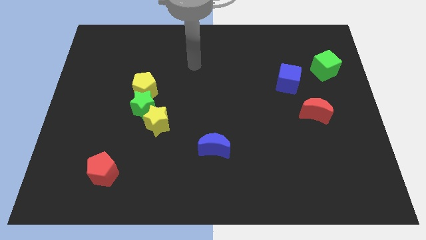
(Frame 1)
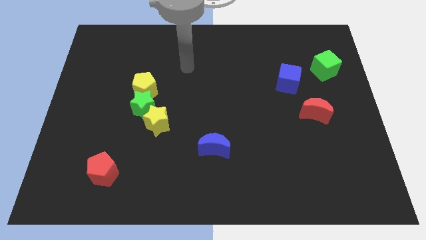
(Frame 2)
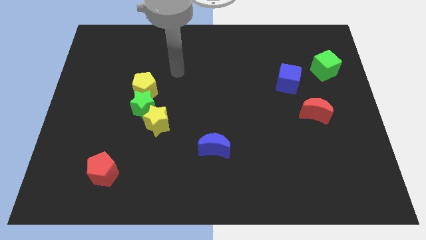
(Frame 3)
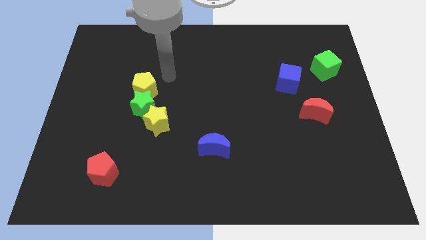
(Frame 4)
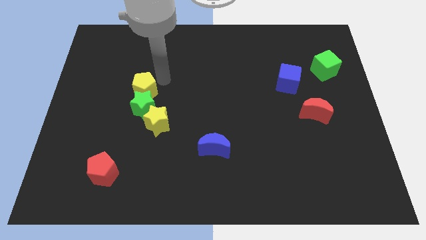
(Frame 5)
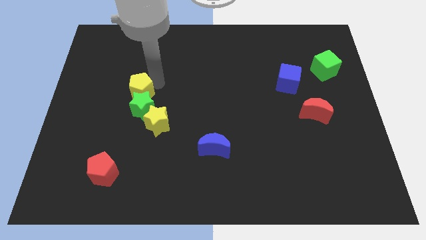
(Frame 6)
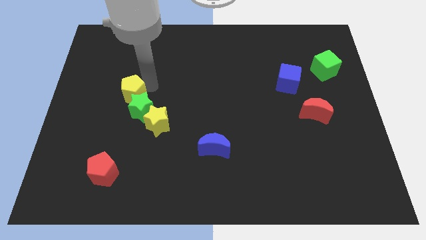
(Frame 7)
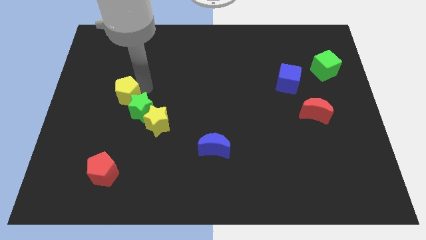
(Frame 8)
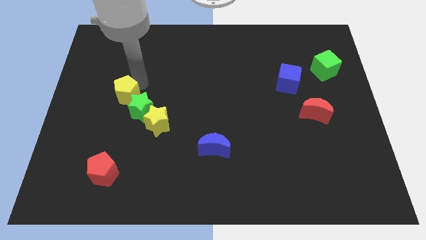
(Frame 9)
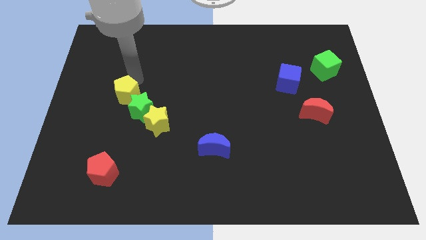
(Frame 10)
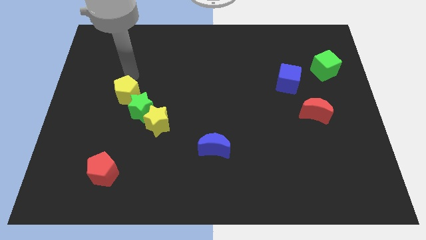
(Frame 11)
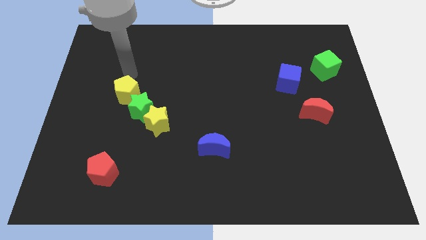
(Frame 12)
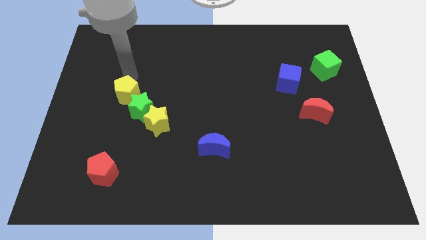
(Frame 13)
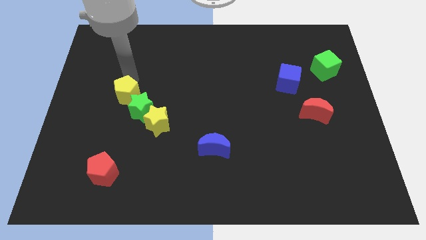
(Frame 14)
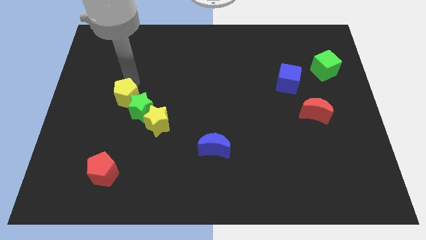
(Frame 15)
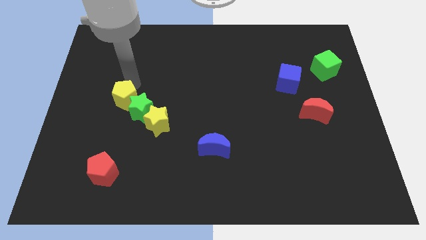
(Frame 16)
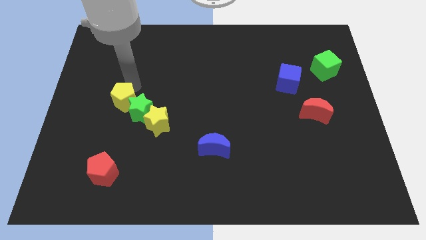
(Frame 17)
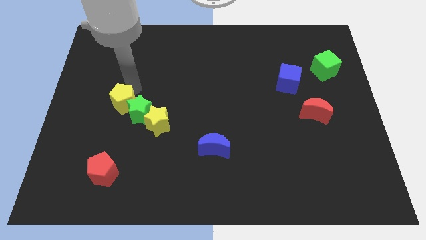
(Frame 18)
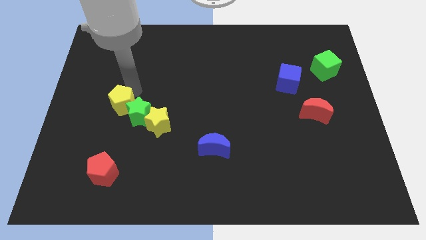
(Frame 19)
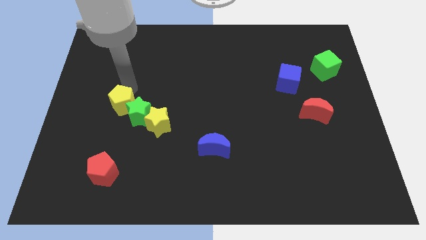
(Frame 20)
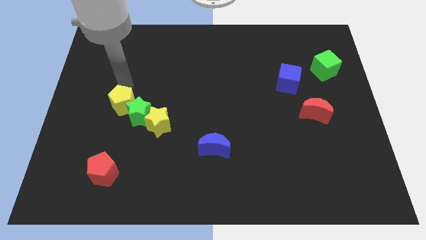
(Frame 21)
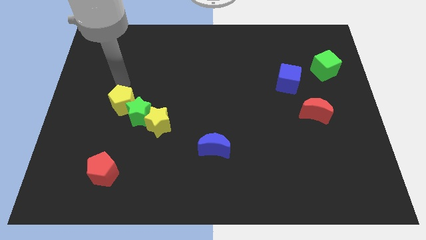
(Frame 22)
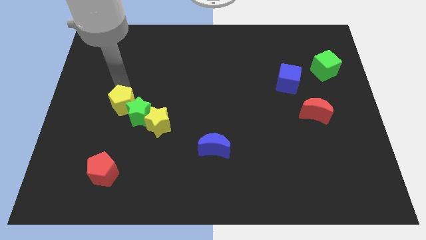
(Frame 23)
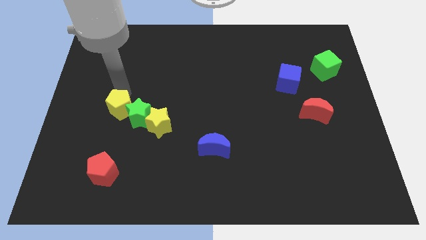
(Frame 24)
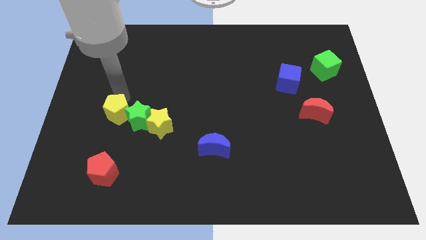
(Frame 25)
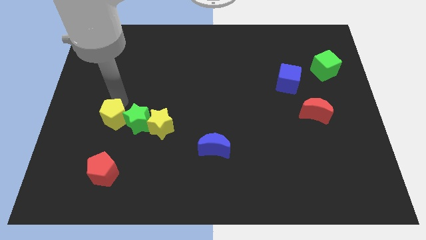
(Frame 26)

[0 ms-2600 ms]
slightly move the yellow pentagon downwards

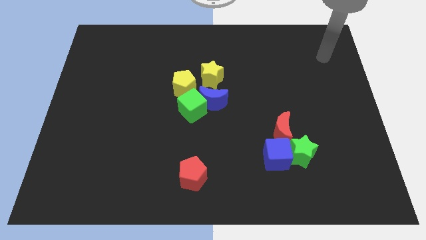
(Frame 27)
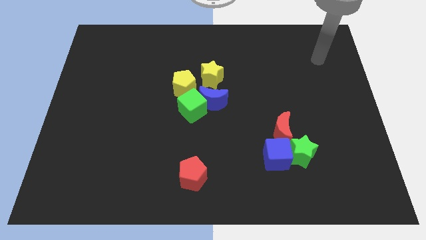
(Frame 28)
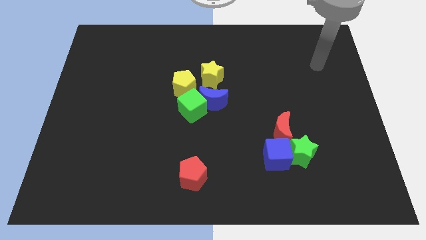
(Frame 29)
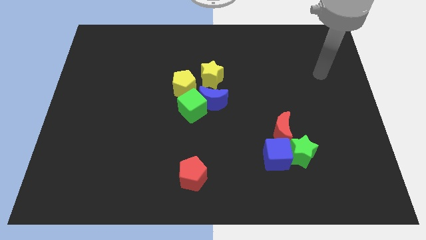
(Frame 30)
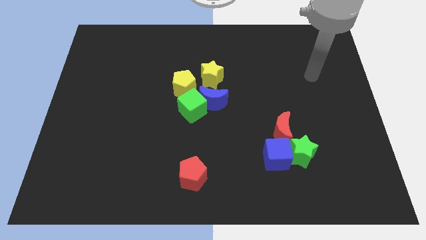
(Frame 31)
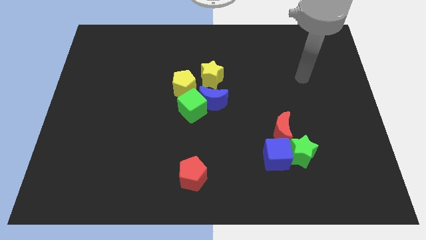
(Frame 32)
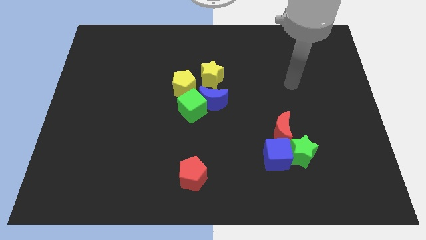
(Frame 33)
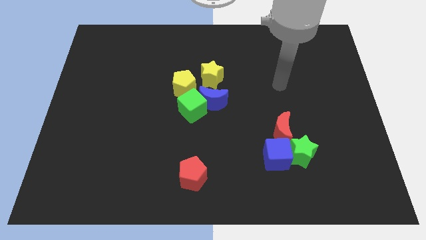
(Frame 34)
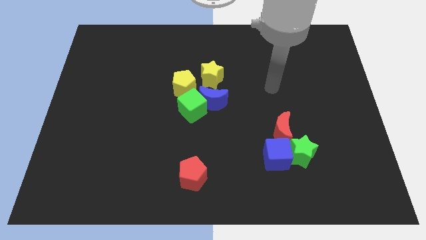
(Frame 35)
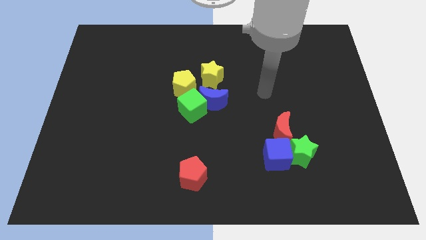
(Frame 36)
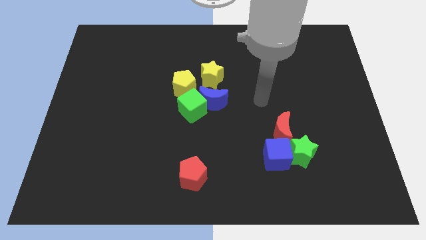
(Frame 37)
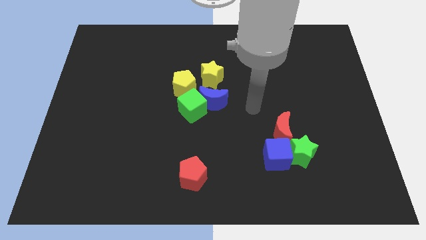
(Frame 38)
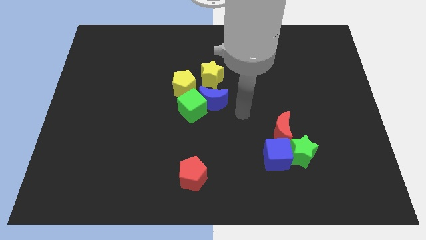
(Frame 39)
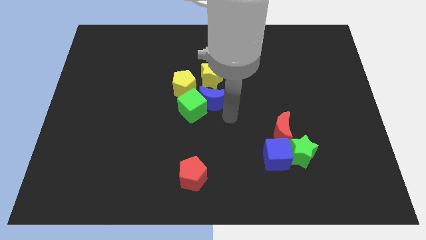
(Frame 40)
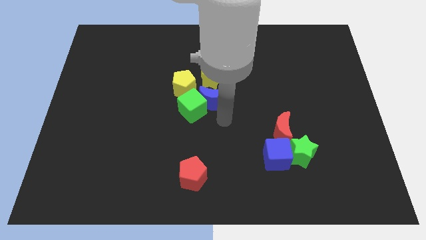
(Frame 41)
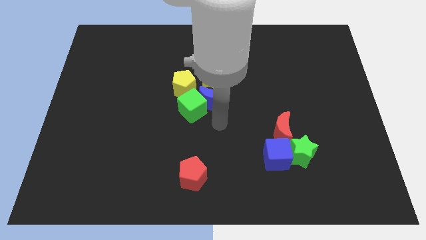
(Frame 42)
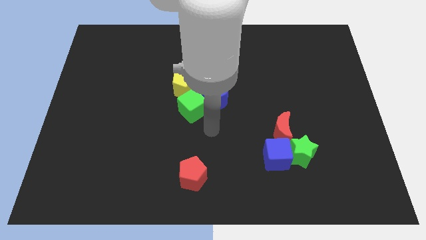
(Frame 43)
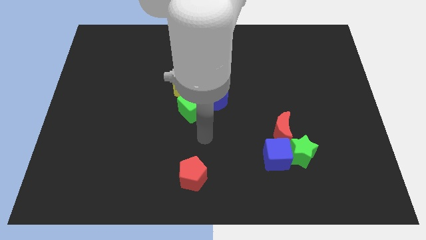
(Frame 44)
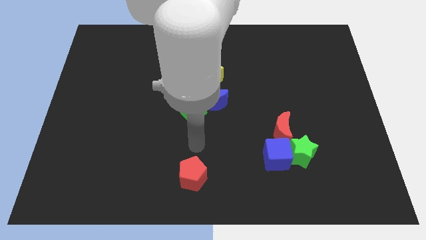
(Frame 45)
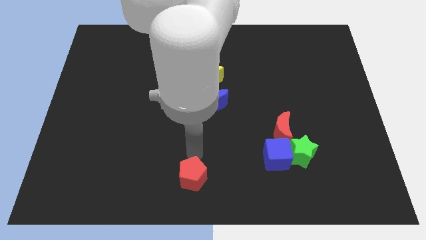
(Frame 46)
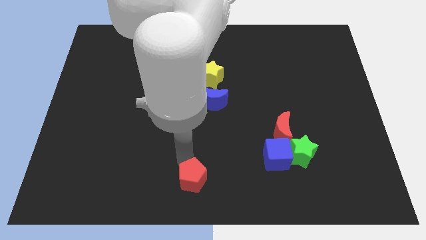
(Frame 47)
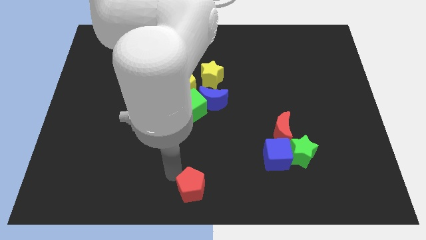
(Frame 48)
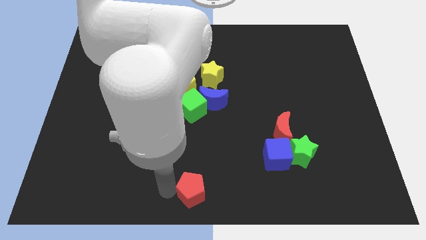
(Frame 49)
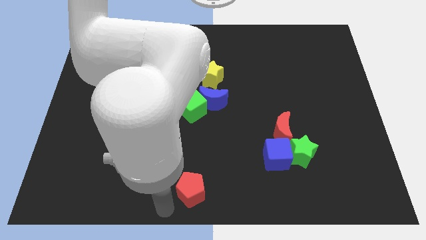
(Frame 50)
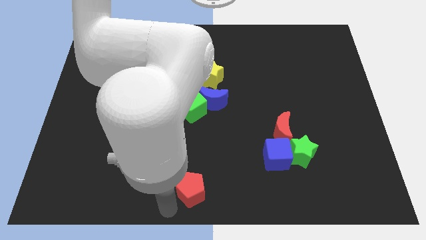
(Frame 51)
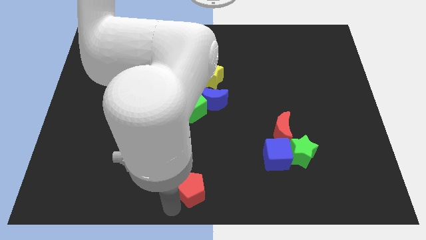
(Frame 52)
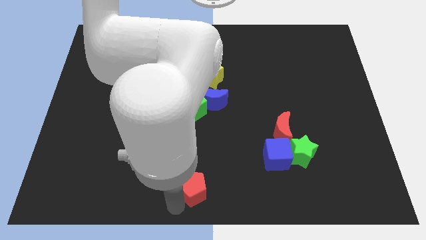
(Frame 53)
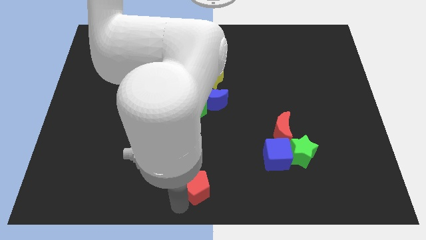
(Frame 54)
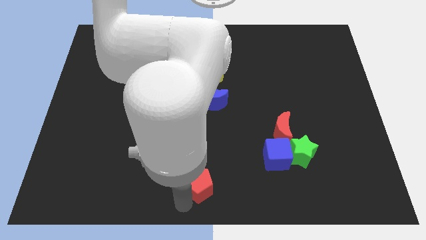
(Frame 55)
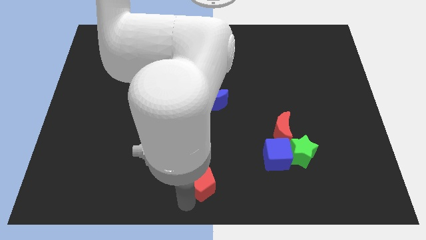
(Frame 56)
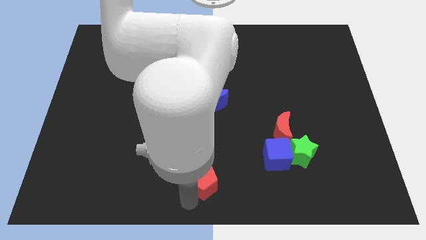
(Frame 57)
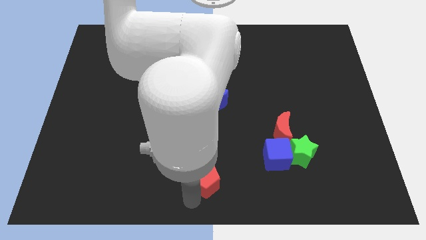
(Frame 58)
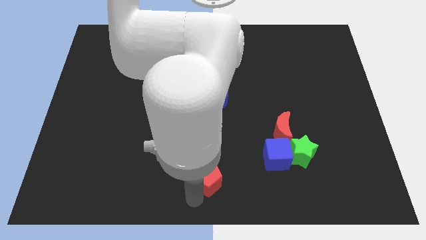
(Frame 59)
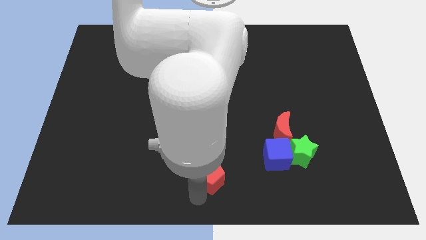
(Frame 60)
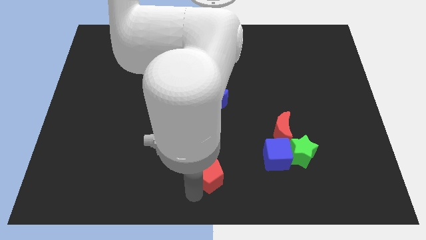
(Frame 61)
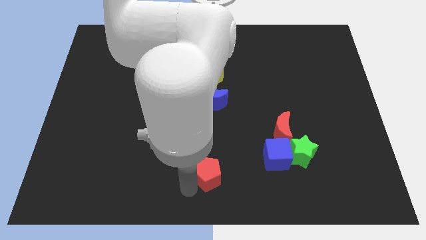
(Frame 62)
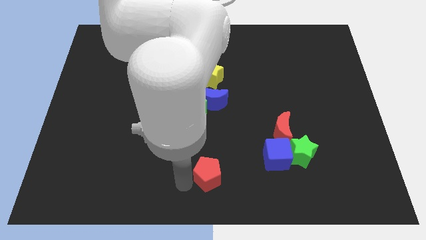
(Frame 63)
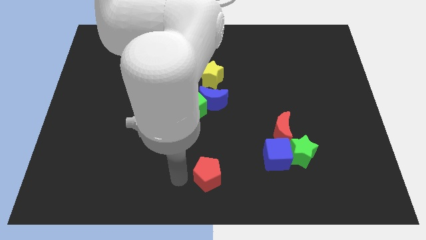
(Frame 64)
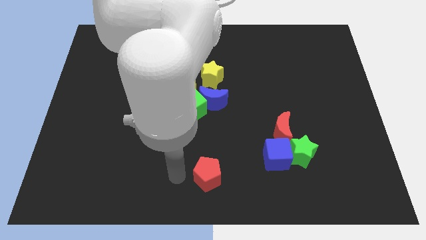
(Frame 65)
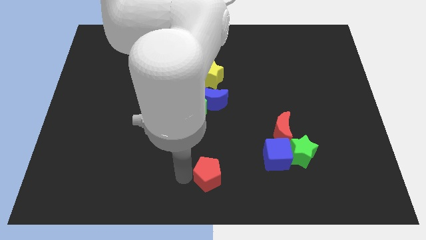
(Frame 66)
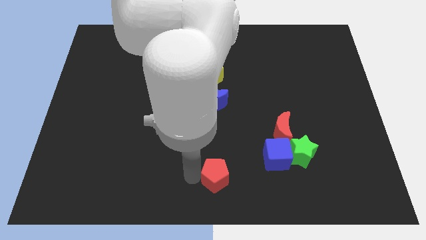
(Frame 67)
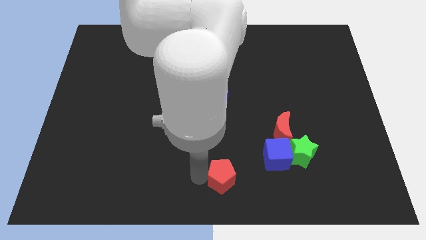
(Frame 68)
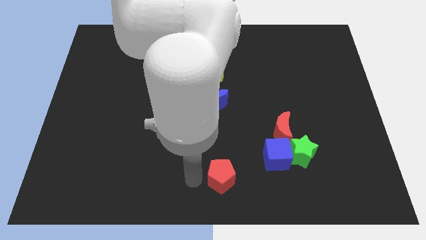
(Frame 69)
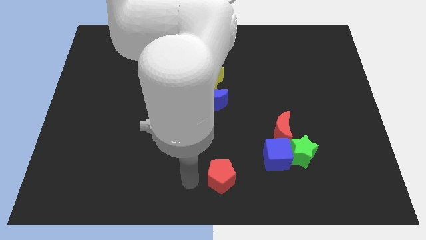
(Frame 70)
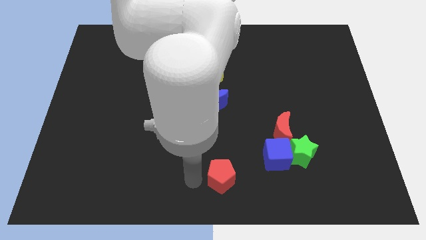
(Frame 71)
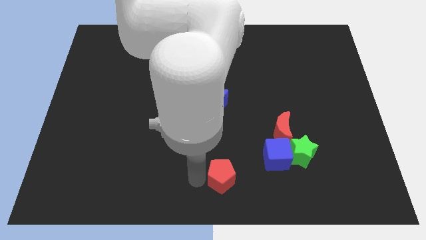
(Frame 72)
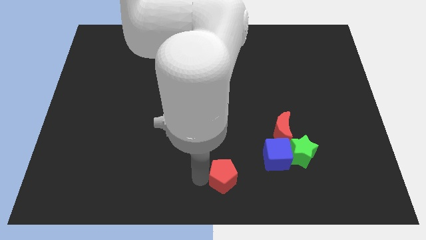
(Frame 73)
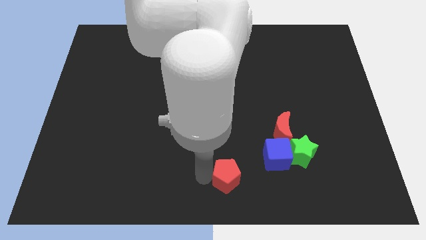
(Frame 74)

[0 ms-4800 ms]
move the red pentagon a little to the right

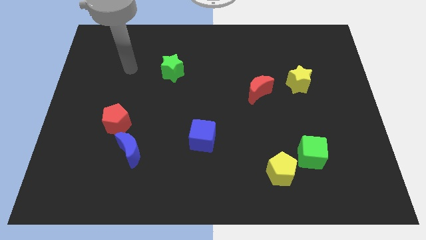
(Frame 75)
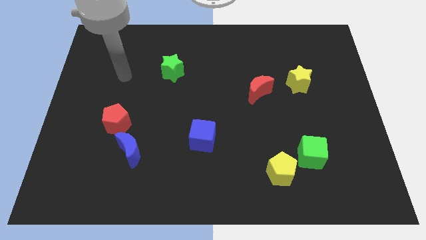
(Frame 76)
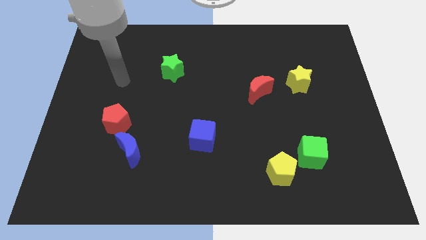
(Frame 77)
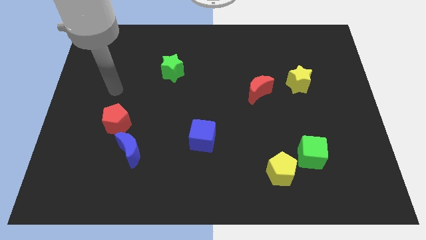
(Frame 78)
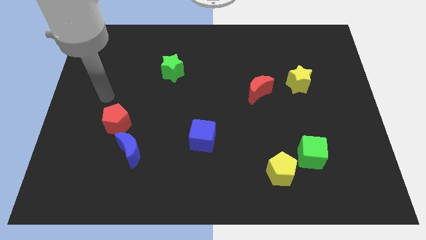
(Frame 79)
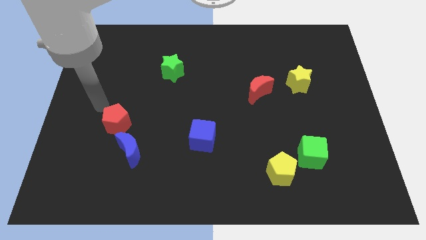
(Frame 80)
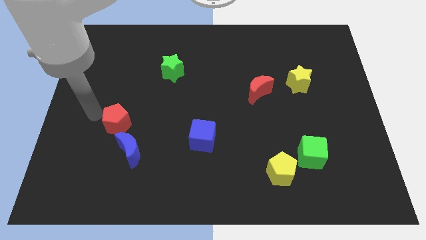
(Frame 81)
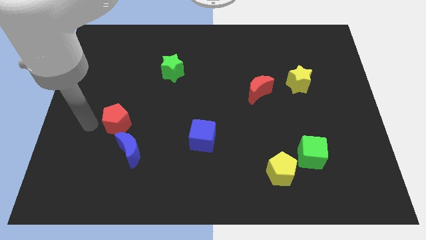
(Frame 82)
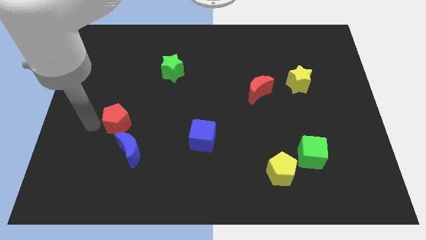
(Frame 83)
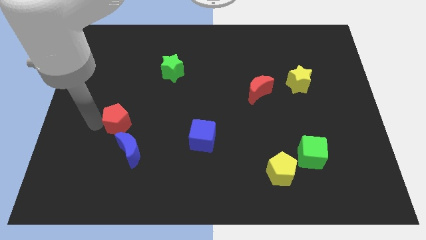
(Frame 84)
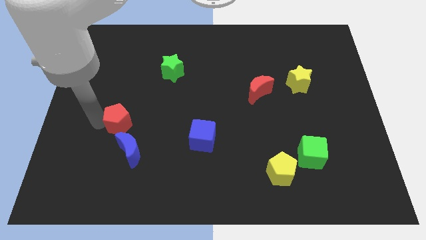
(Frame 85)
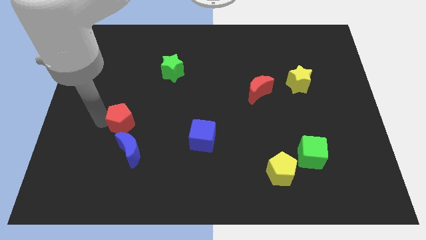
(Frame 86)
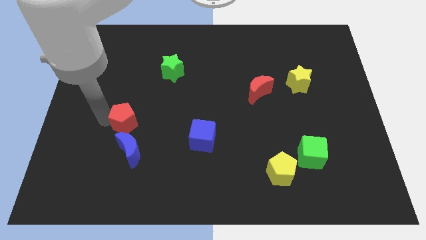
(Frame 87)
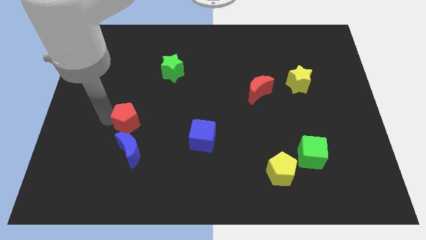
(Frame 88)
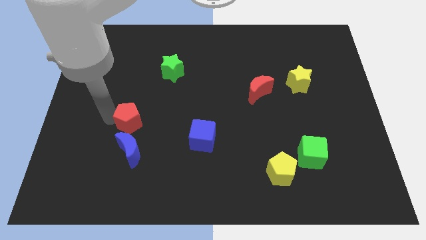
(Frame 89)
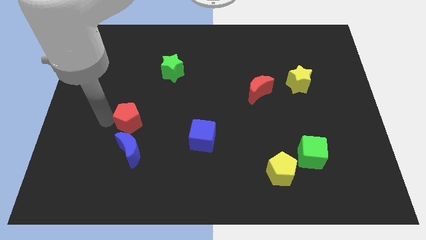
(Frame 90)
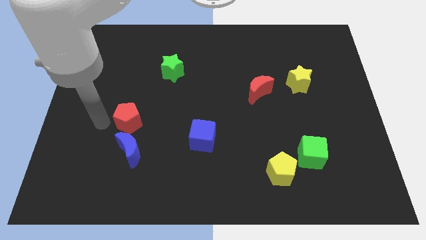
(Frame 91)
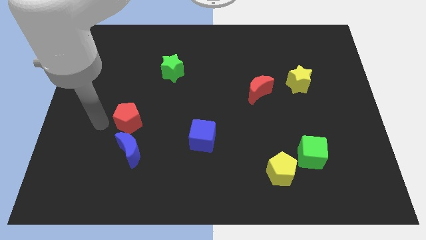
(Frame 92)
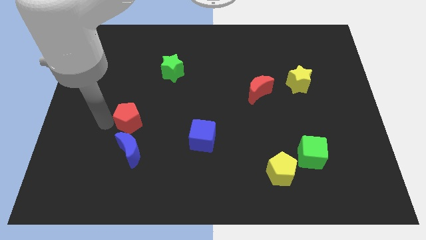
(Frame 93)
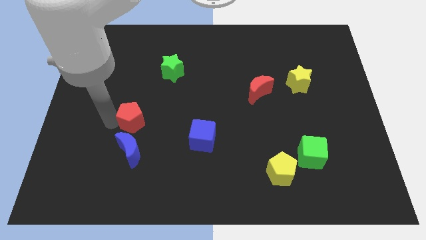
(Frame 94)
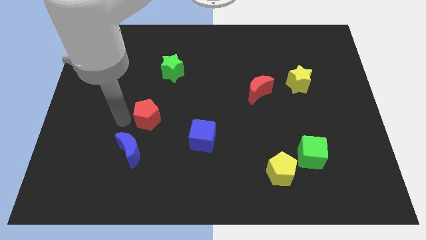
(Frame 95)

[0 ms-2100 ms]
push the red pentagon right somewhat
